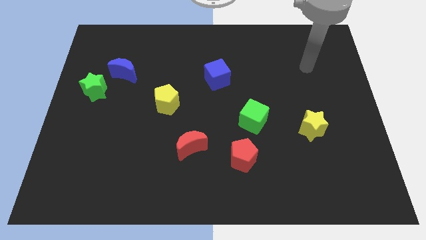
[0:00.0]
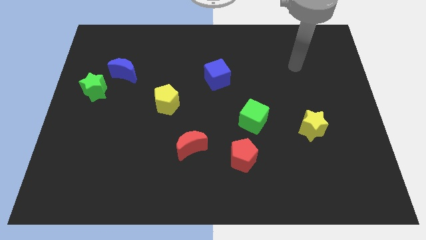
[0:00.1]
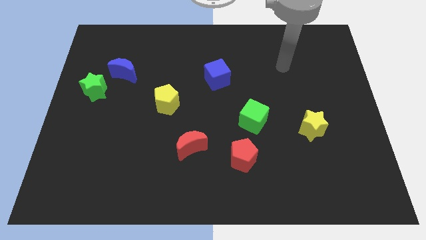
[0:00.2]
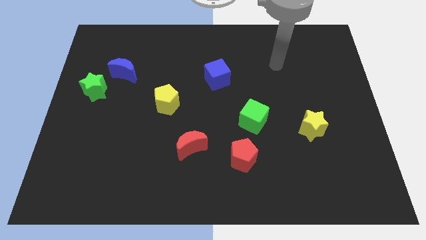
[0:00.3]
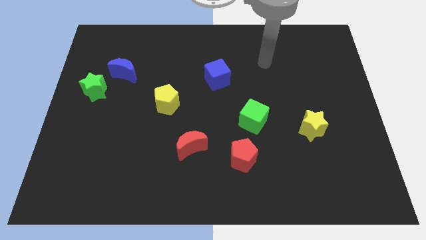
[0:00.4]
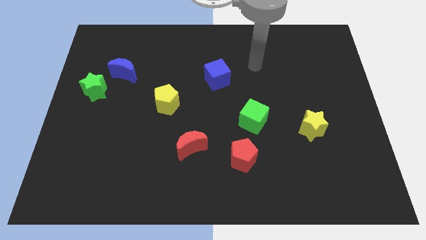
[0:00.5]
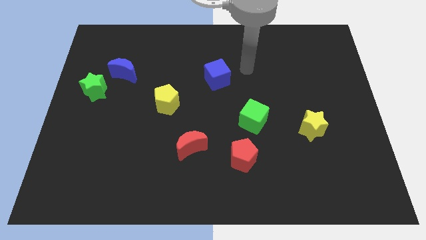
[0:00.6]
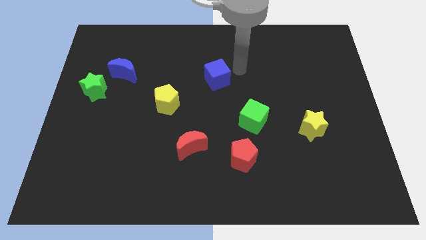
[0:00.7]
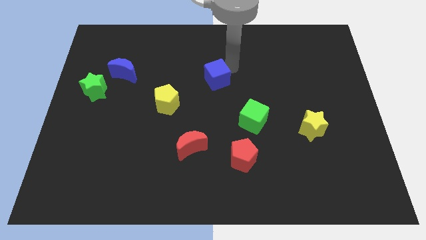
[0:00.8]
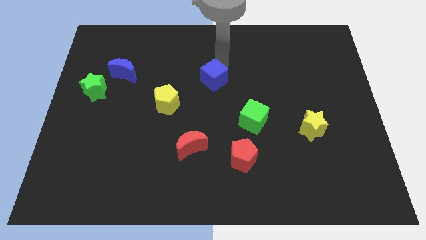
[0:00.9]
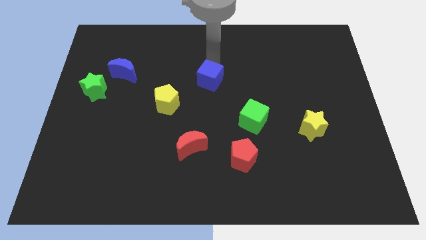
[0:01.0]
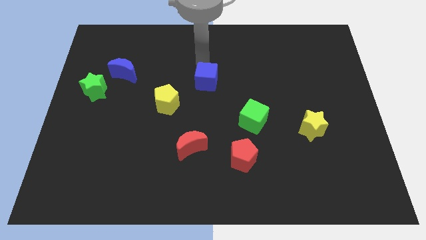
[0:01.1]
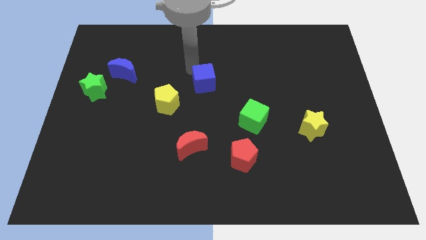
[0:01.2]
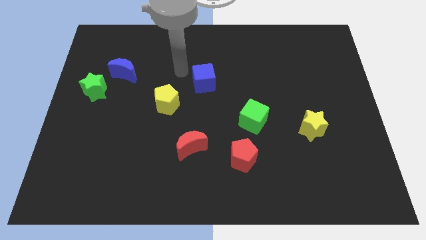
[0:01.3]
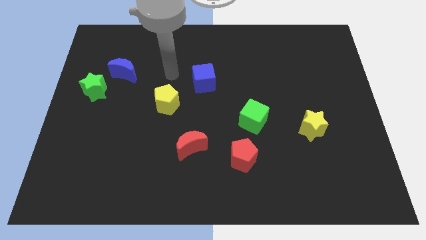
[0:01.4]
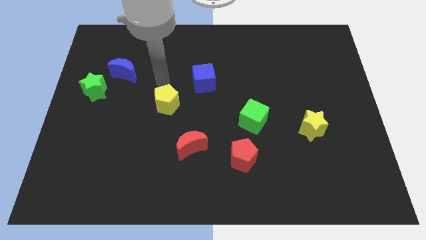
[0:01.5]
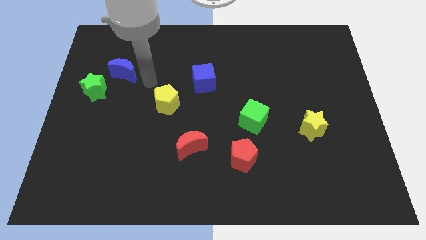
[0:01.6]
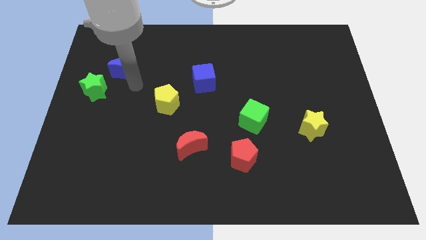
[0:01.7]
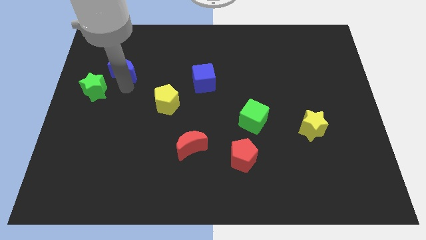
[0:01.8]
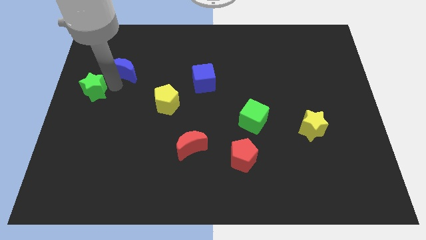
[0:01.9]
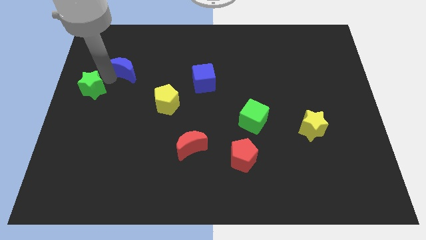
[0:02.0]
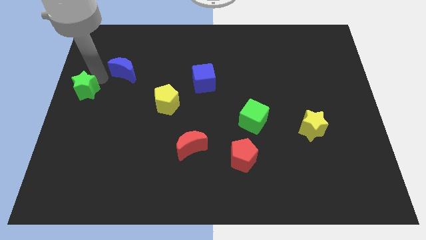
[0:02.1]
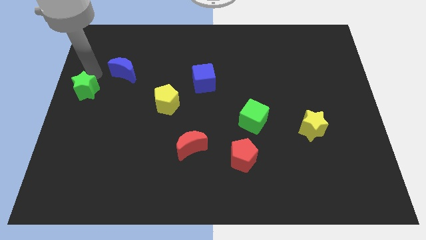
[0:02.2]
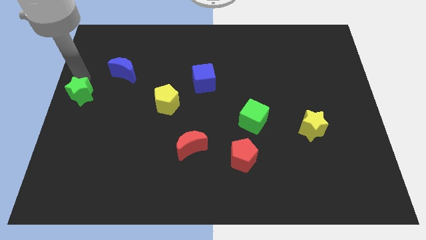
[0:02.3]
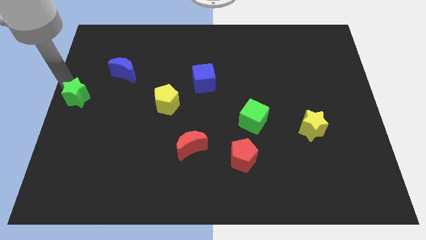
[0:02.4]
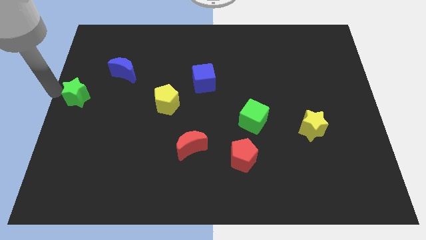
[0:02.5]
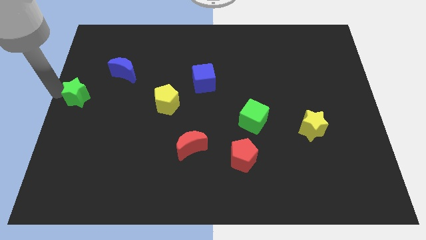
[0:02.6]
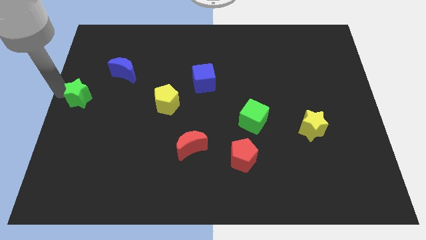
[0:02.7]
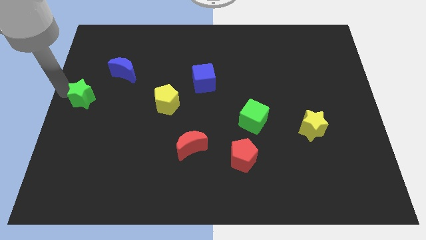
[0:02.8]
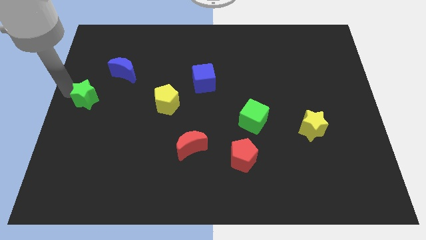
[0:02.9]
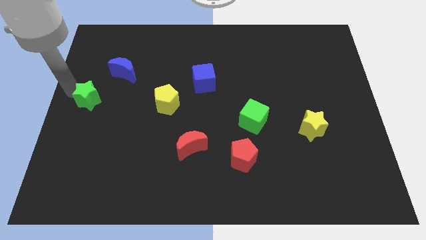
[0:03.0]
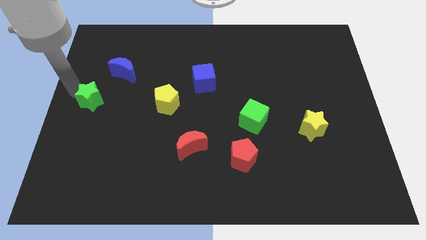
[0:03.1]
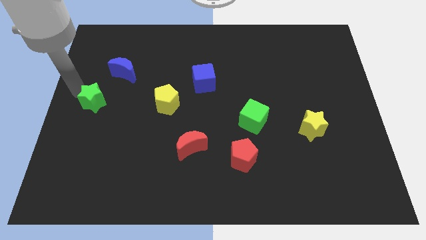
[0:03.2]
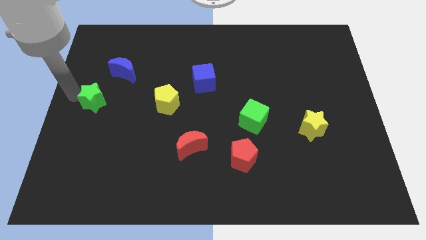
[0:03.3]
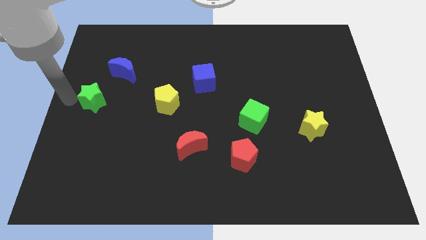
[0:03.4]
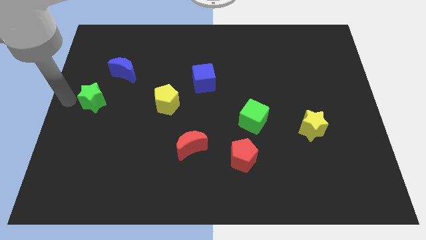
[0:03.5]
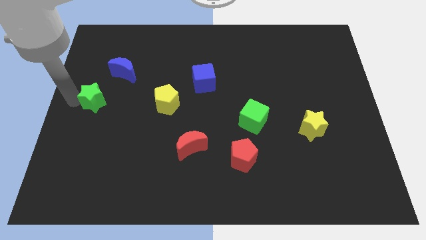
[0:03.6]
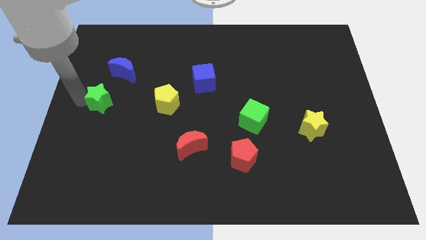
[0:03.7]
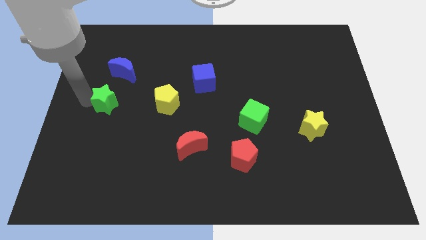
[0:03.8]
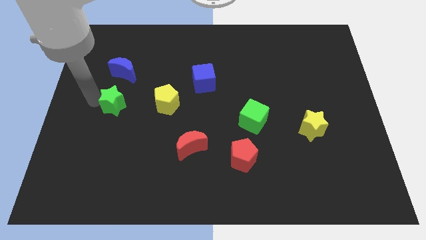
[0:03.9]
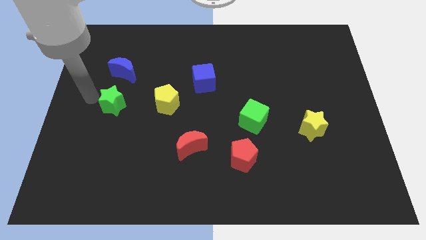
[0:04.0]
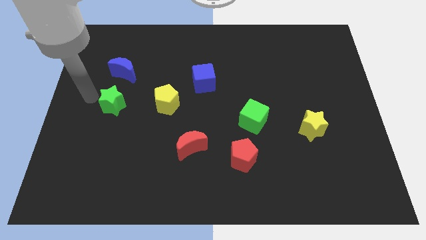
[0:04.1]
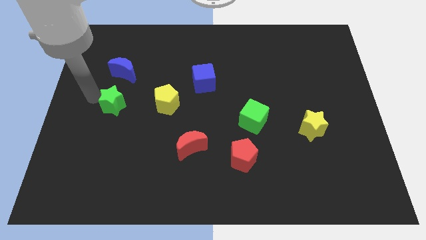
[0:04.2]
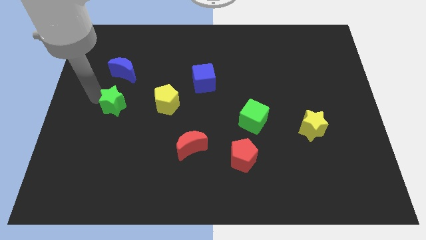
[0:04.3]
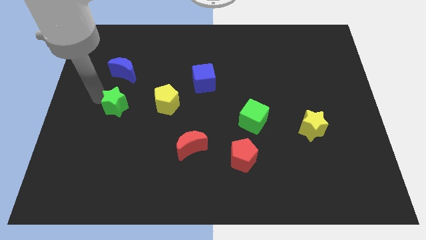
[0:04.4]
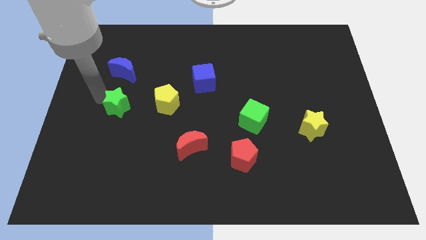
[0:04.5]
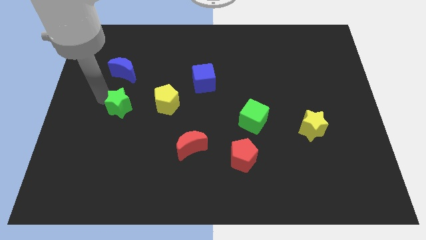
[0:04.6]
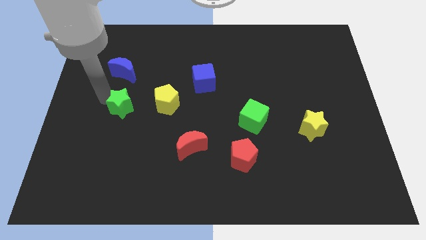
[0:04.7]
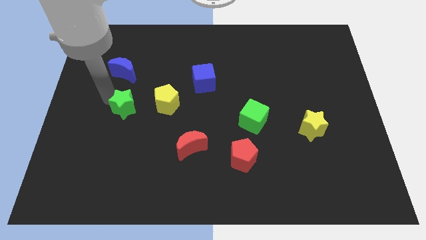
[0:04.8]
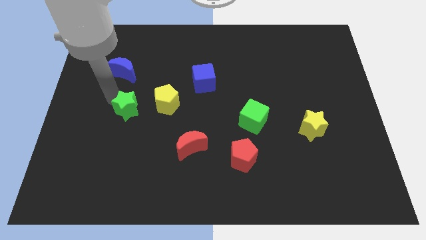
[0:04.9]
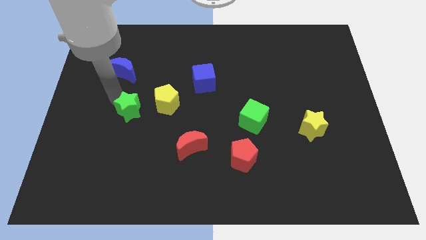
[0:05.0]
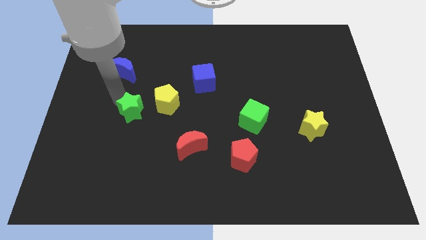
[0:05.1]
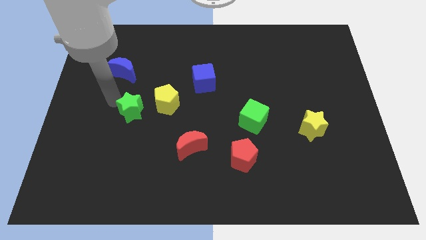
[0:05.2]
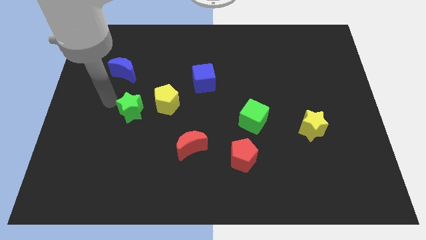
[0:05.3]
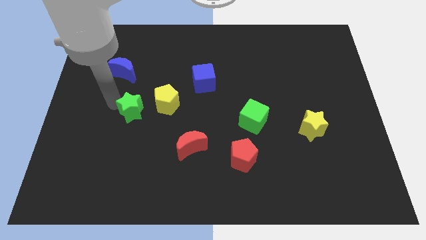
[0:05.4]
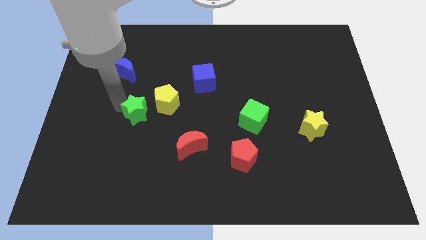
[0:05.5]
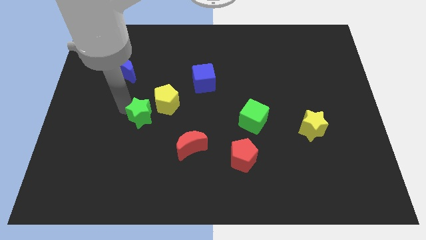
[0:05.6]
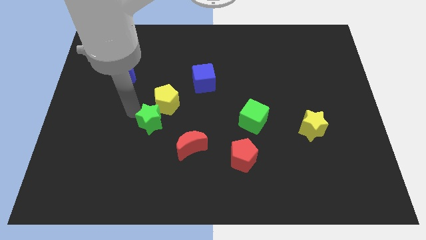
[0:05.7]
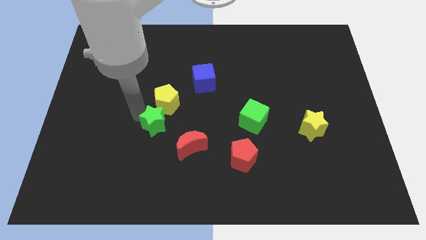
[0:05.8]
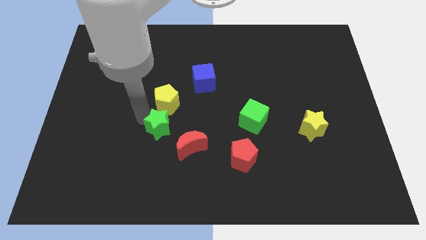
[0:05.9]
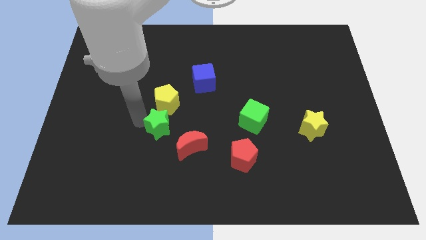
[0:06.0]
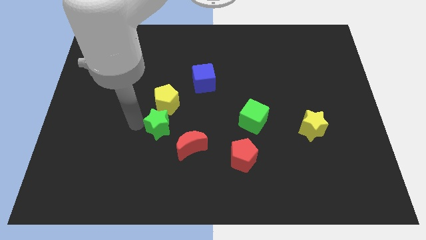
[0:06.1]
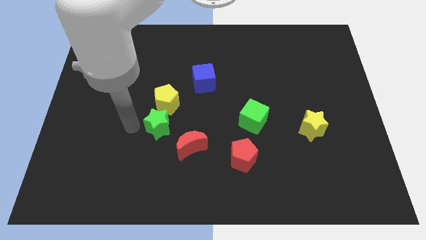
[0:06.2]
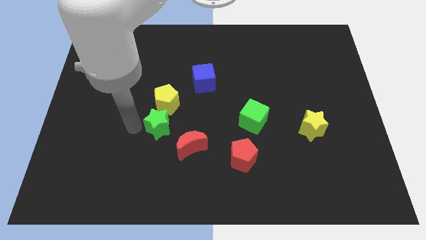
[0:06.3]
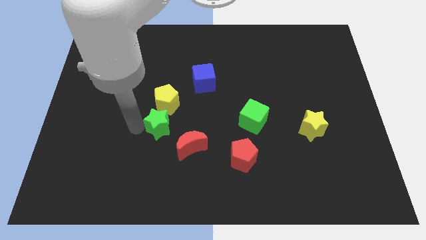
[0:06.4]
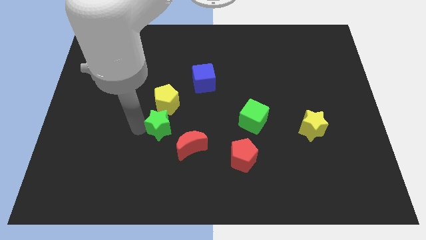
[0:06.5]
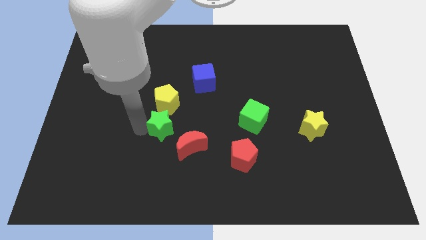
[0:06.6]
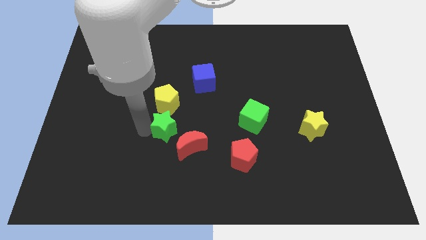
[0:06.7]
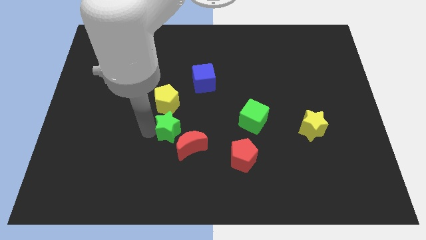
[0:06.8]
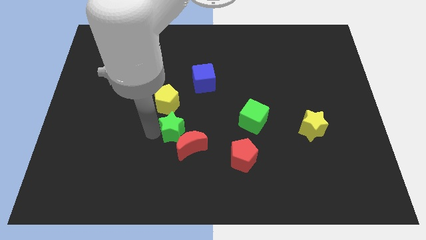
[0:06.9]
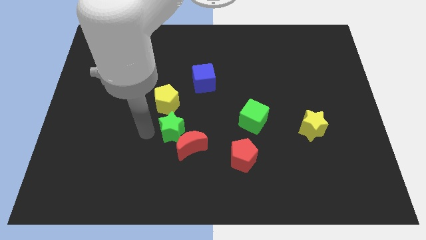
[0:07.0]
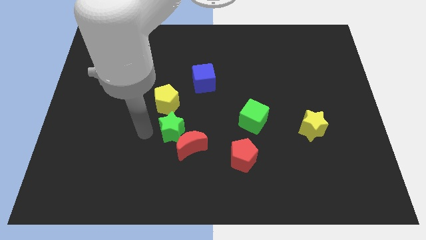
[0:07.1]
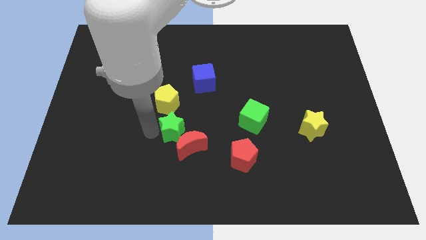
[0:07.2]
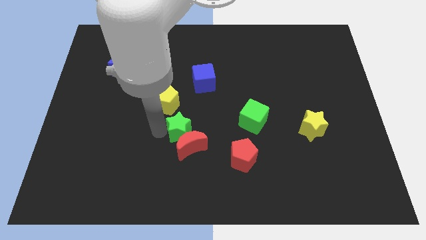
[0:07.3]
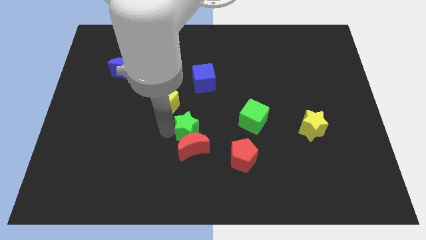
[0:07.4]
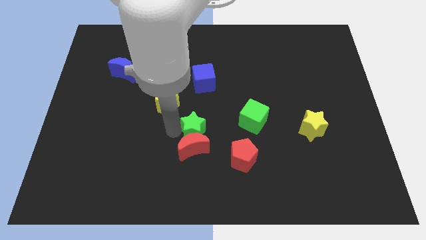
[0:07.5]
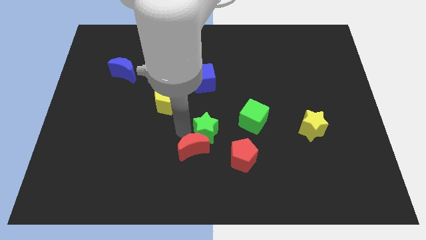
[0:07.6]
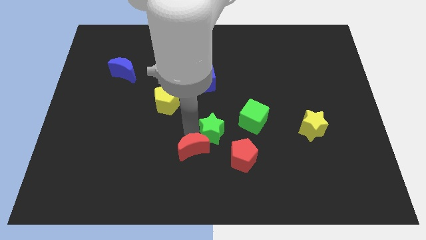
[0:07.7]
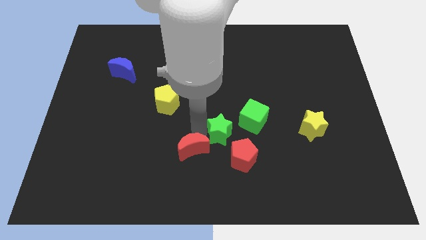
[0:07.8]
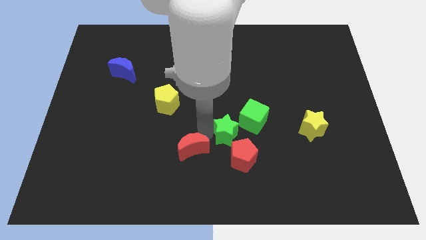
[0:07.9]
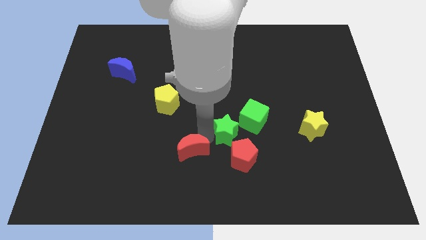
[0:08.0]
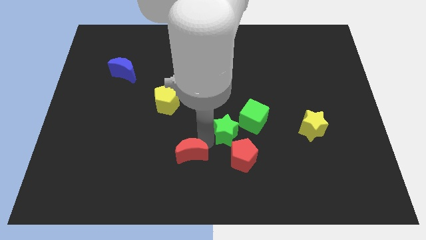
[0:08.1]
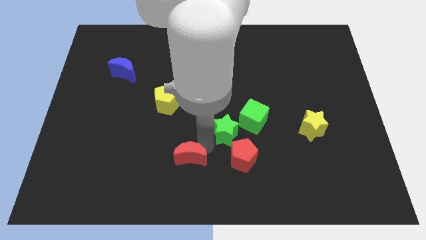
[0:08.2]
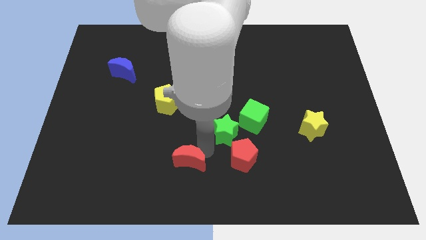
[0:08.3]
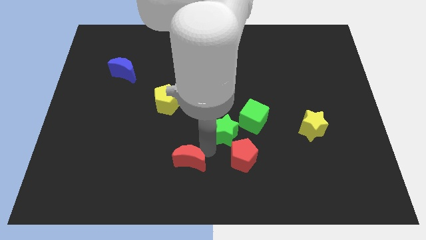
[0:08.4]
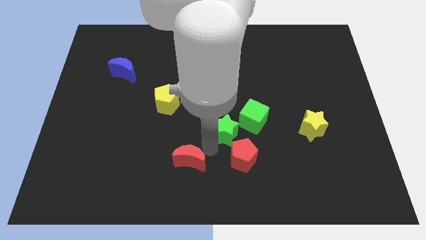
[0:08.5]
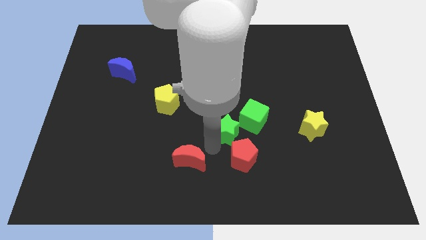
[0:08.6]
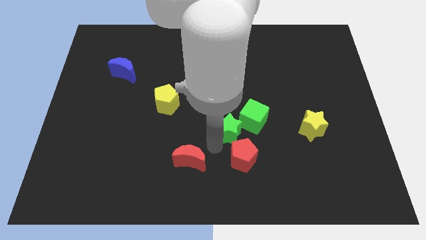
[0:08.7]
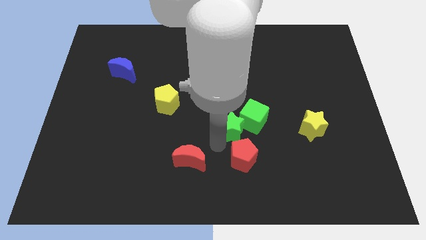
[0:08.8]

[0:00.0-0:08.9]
put the green star close to the green cube
